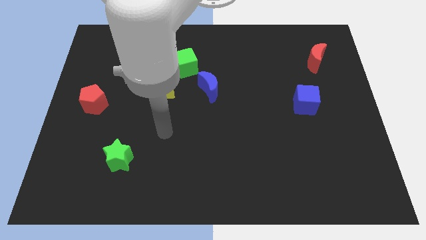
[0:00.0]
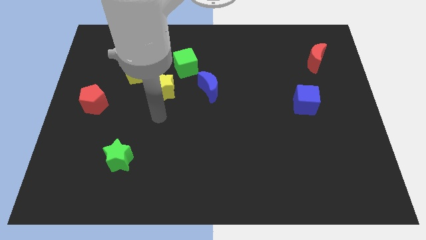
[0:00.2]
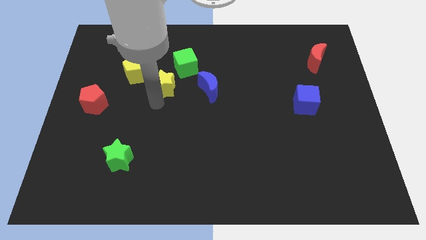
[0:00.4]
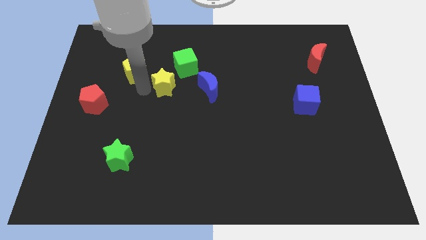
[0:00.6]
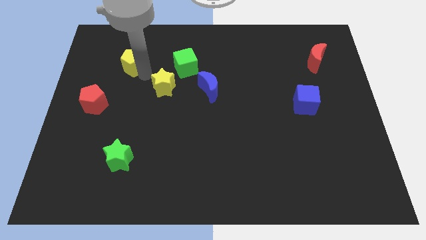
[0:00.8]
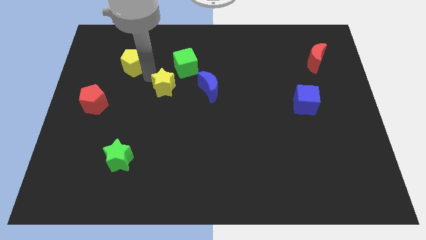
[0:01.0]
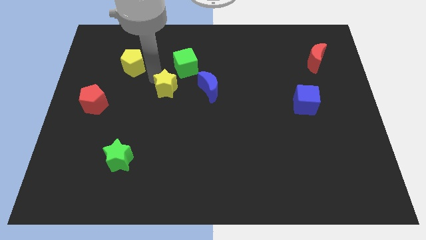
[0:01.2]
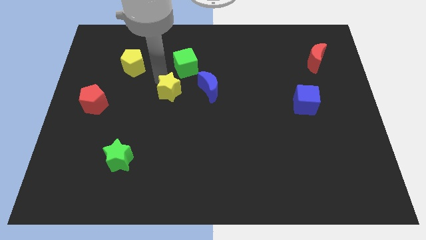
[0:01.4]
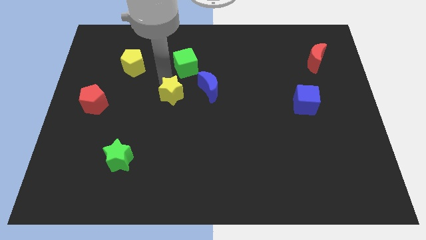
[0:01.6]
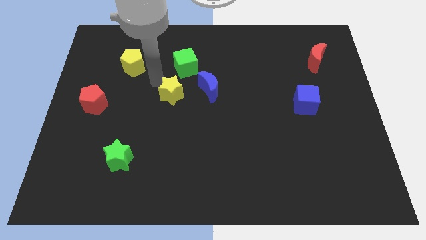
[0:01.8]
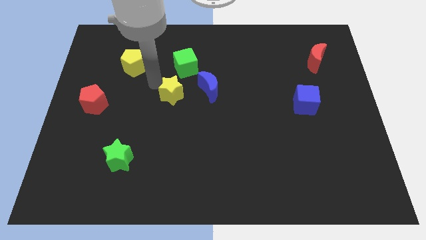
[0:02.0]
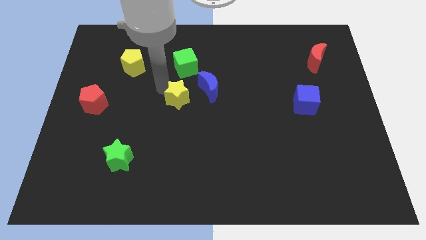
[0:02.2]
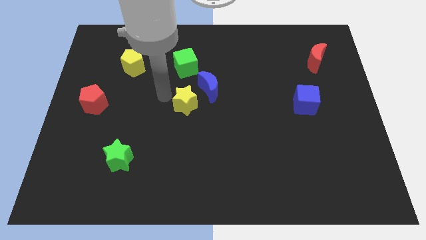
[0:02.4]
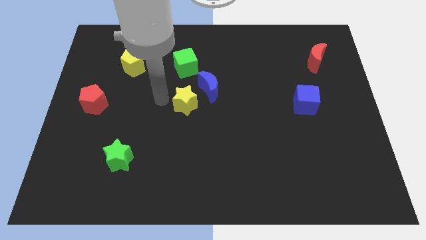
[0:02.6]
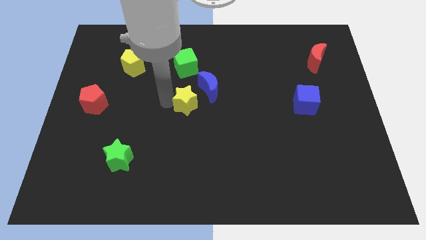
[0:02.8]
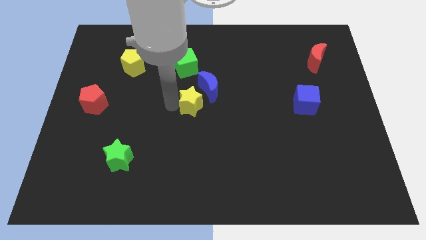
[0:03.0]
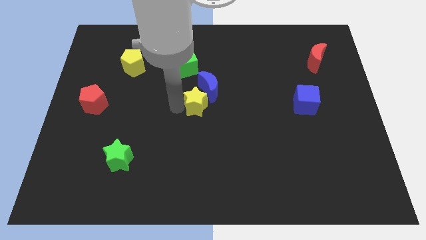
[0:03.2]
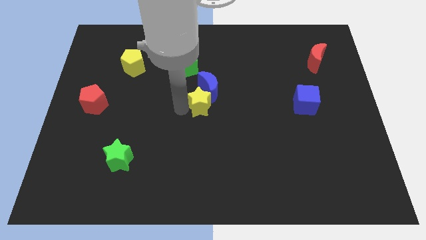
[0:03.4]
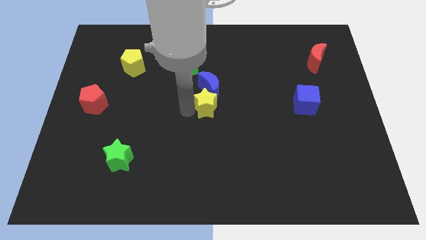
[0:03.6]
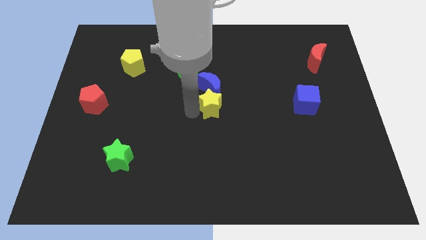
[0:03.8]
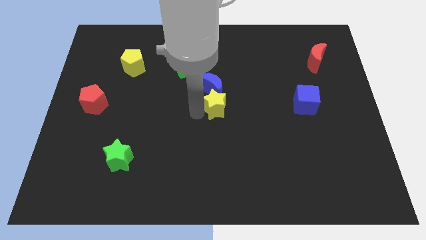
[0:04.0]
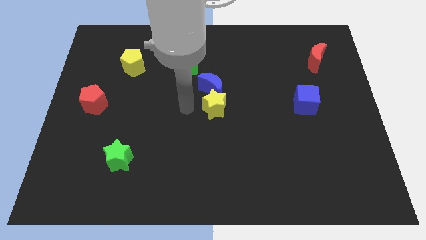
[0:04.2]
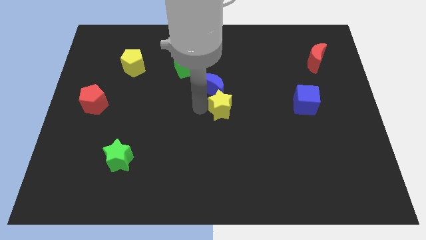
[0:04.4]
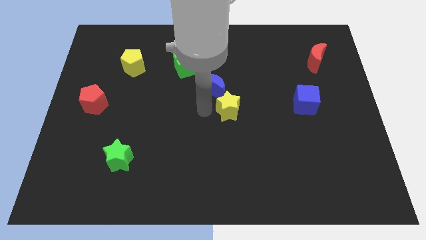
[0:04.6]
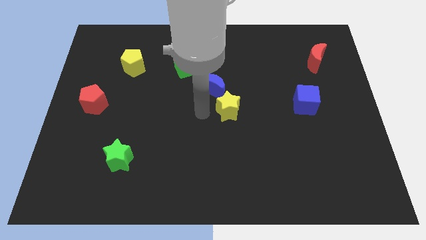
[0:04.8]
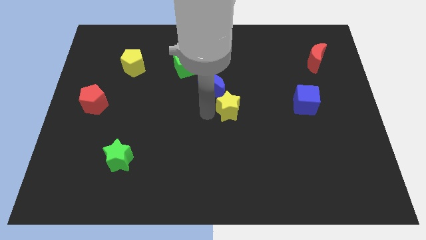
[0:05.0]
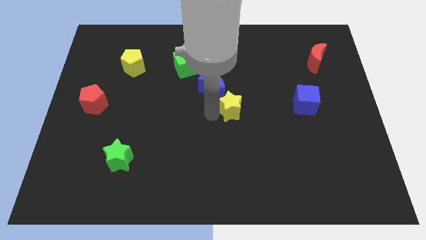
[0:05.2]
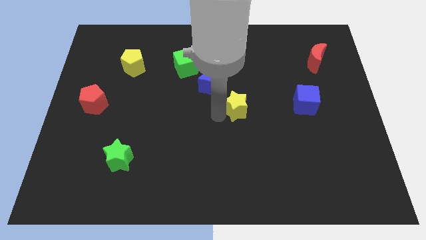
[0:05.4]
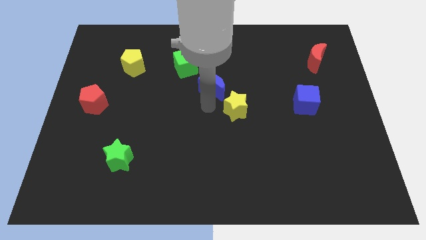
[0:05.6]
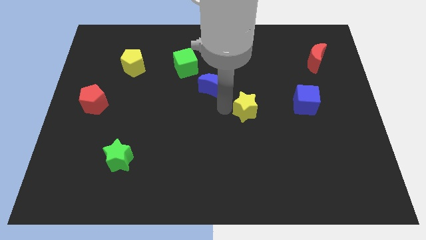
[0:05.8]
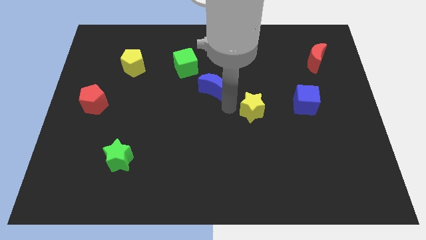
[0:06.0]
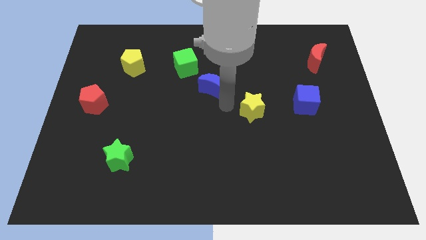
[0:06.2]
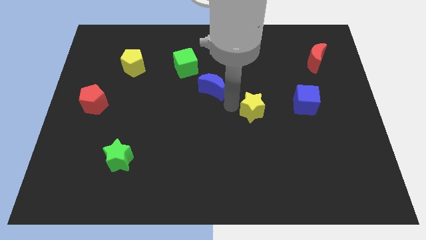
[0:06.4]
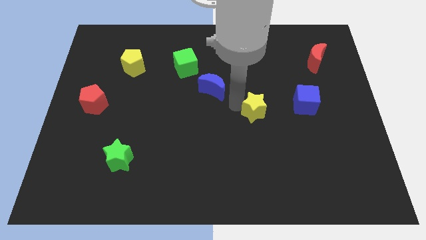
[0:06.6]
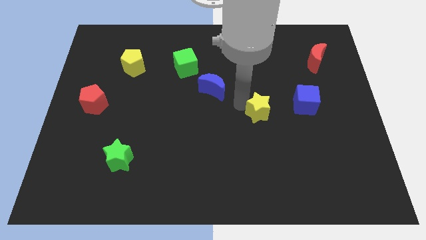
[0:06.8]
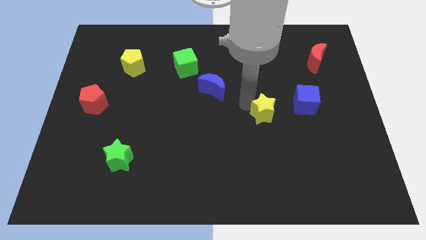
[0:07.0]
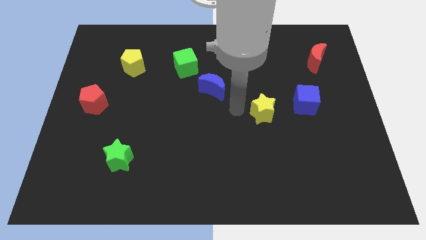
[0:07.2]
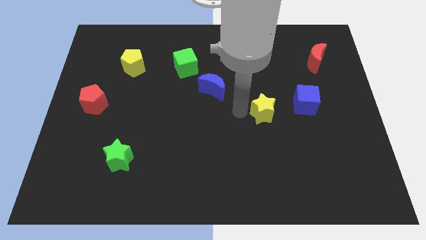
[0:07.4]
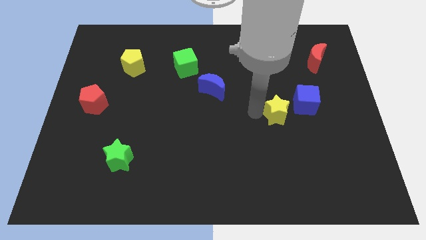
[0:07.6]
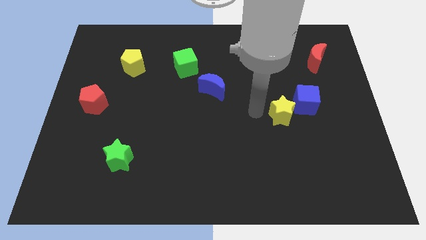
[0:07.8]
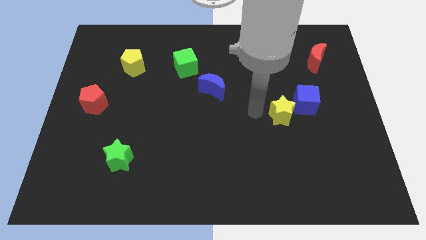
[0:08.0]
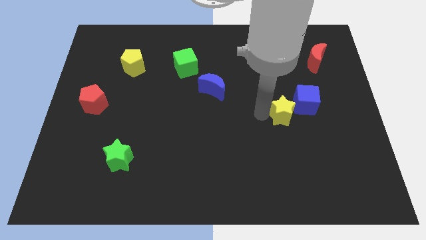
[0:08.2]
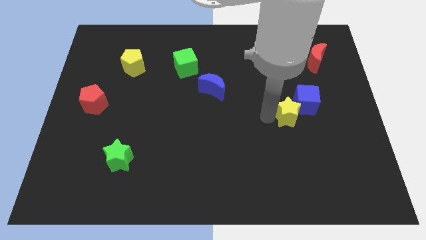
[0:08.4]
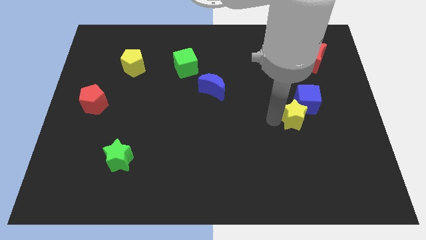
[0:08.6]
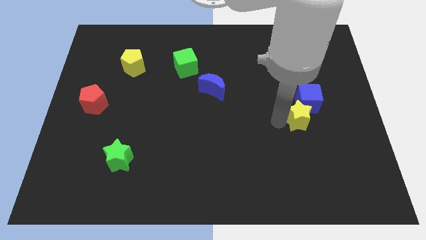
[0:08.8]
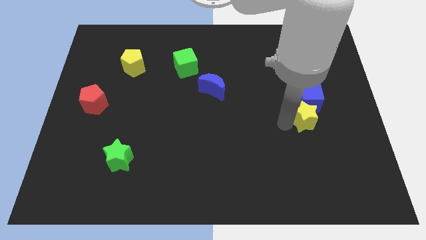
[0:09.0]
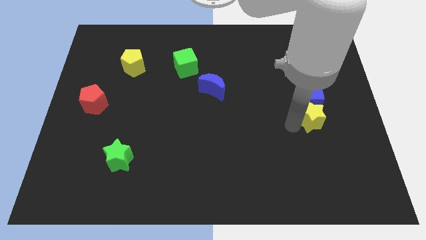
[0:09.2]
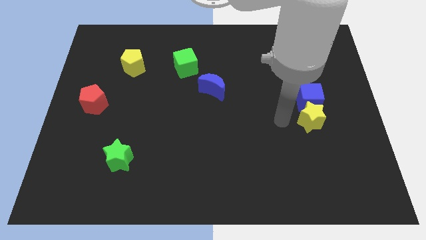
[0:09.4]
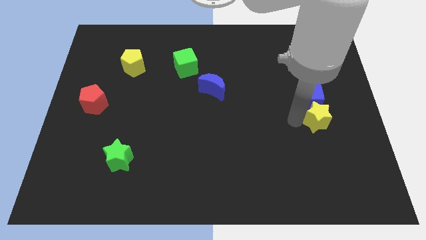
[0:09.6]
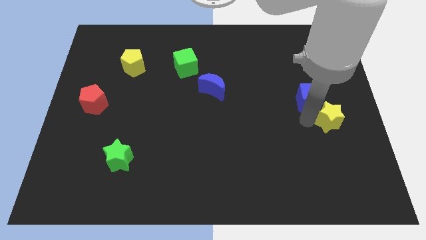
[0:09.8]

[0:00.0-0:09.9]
push the yellow star to the right side of the board

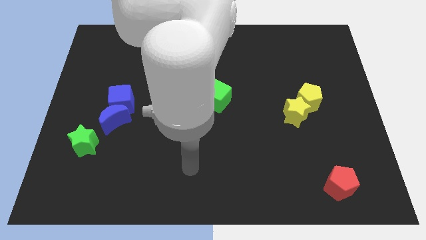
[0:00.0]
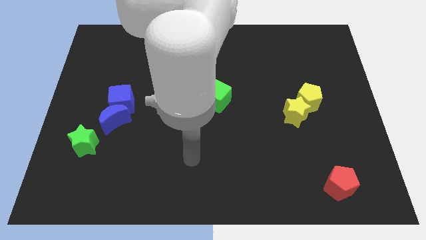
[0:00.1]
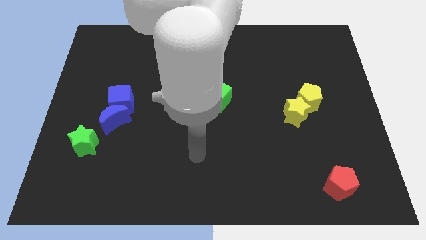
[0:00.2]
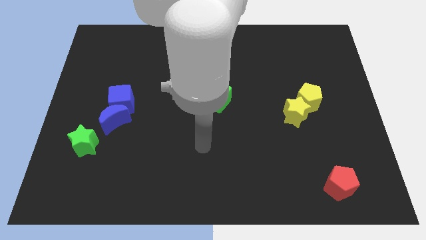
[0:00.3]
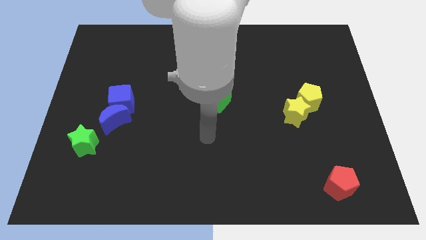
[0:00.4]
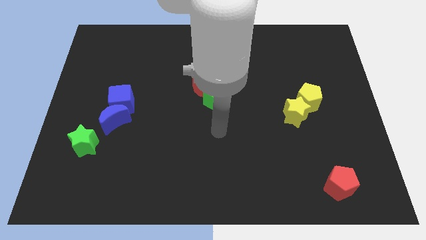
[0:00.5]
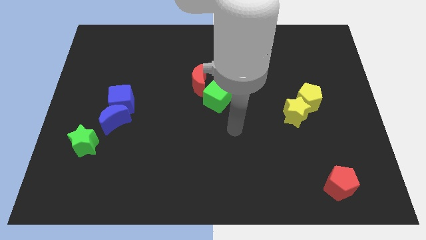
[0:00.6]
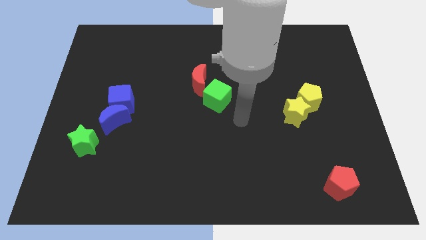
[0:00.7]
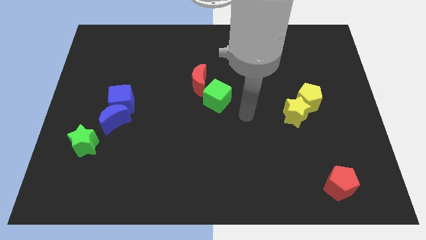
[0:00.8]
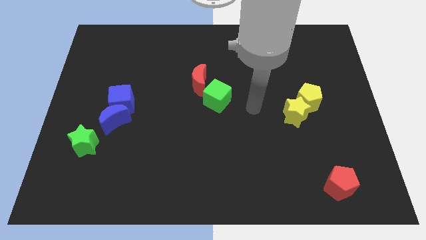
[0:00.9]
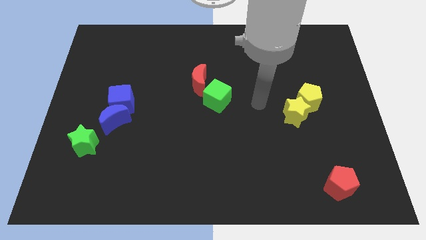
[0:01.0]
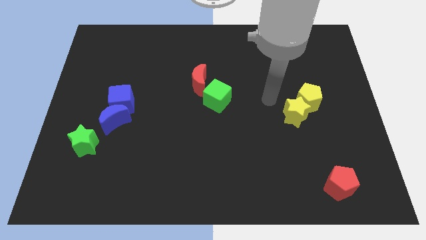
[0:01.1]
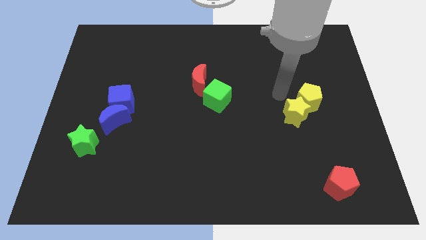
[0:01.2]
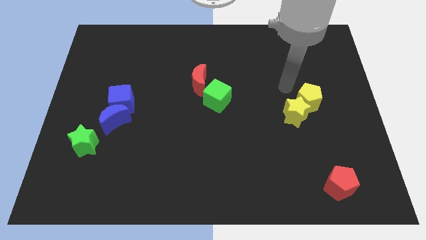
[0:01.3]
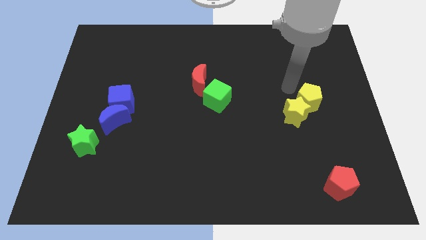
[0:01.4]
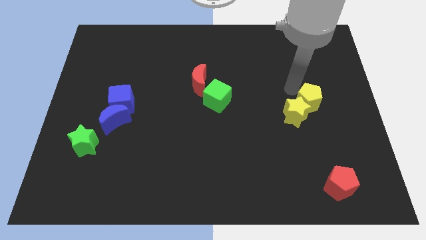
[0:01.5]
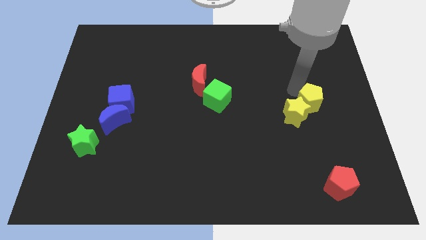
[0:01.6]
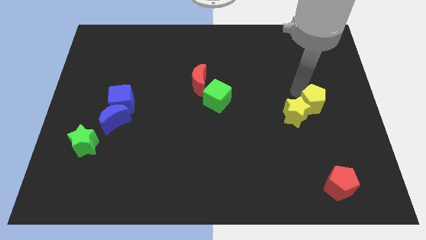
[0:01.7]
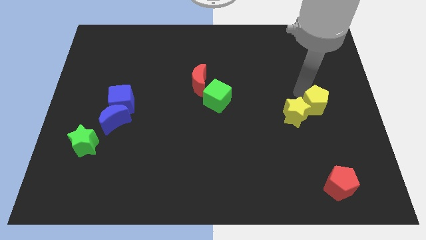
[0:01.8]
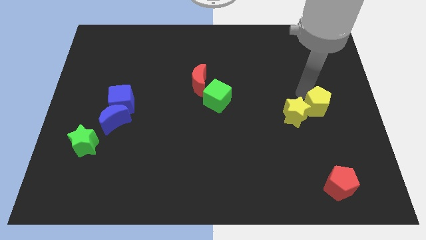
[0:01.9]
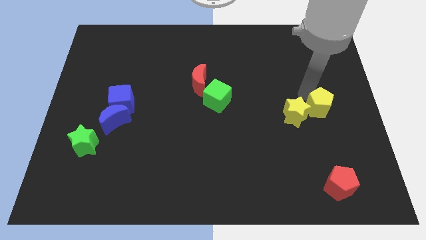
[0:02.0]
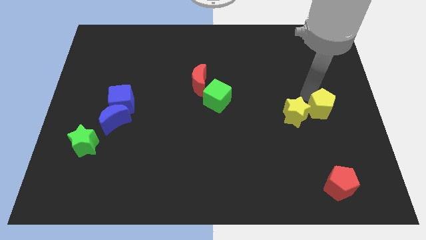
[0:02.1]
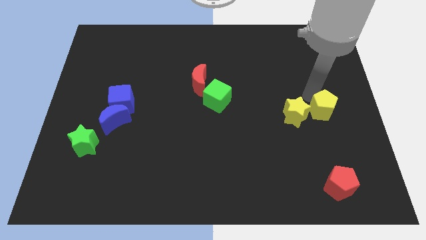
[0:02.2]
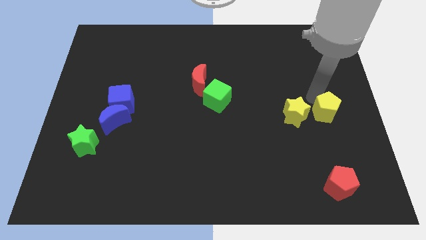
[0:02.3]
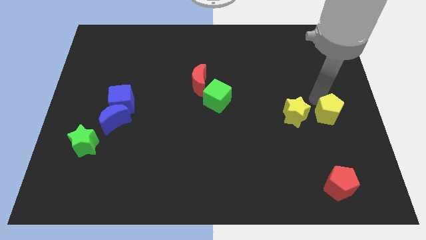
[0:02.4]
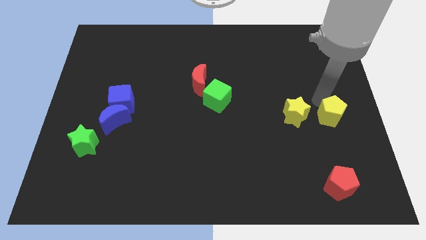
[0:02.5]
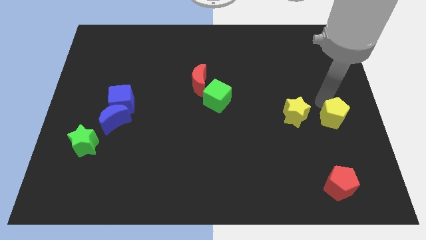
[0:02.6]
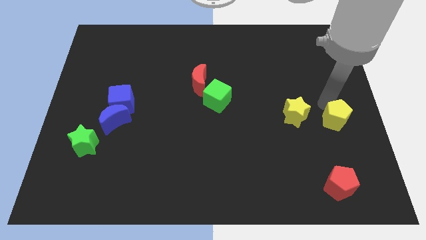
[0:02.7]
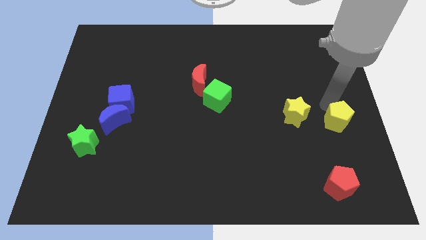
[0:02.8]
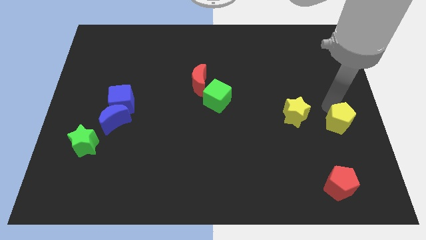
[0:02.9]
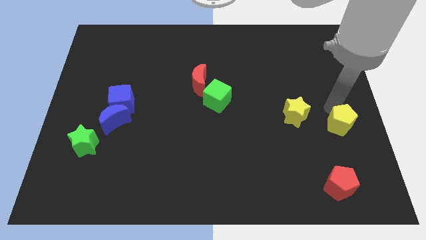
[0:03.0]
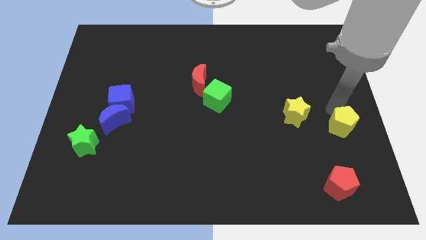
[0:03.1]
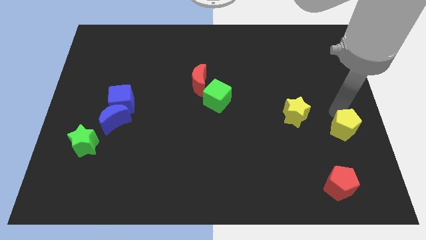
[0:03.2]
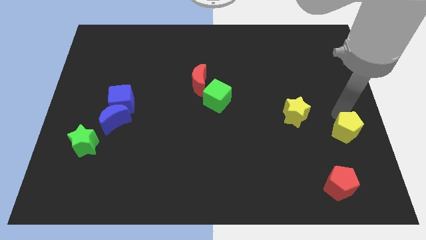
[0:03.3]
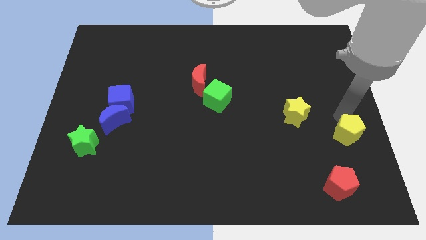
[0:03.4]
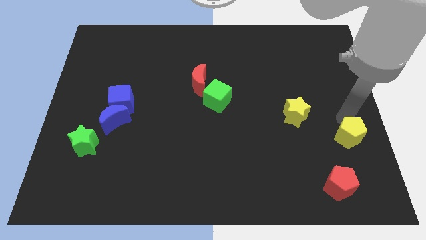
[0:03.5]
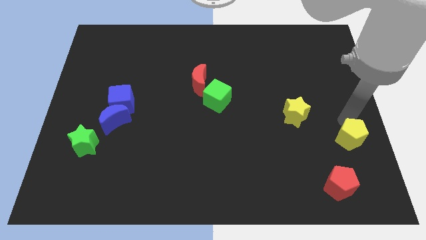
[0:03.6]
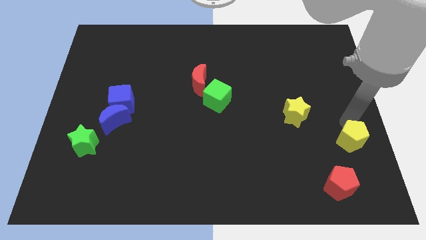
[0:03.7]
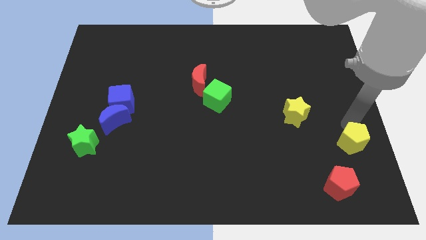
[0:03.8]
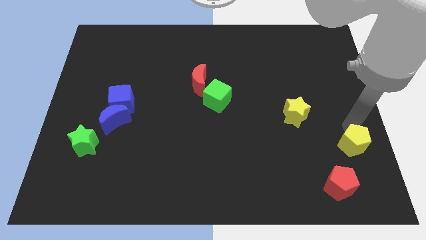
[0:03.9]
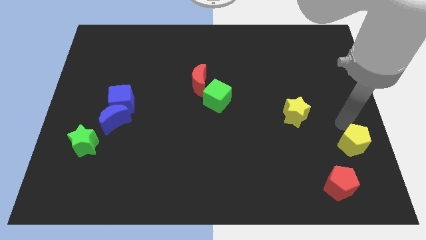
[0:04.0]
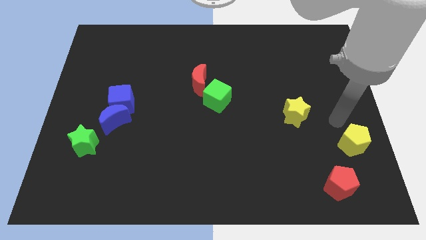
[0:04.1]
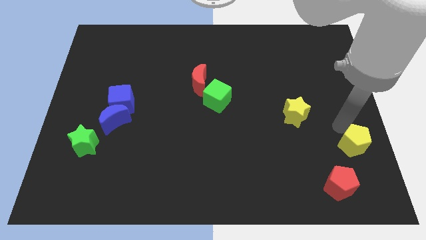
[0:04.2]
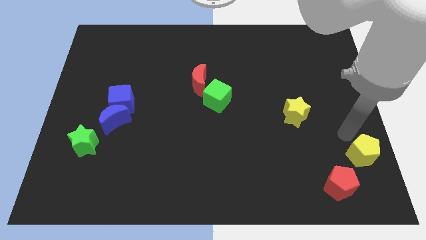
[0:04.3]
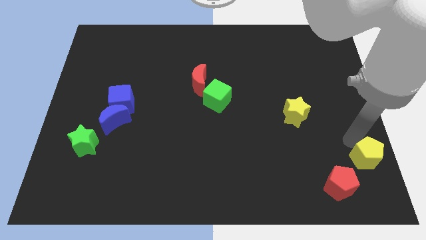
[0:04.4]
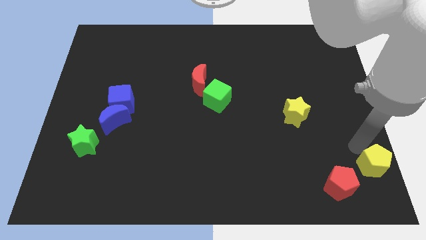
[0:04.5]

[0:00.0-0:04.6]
put the yellow pentagon to the lower right corner
